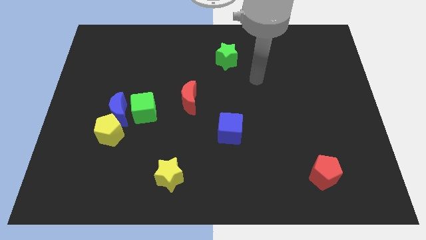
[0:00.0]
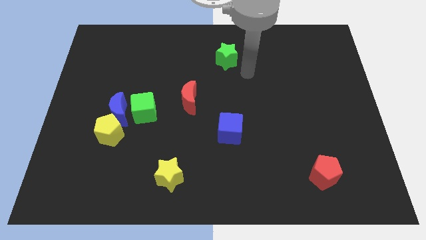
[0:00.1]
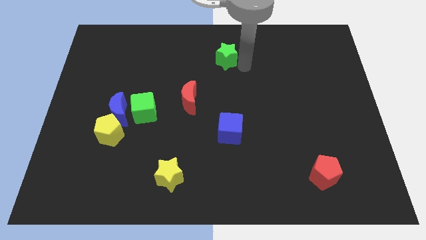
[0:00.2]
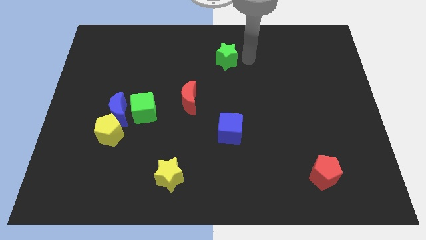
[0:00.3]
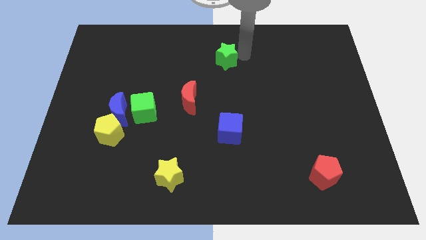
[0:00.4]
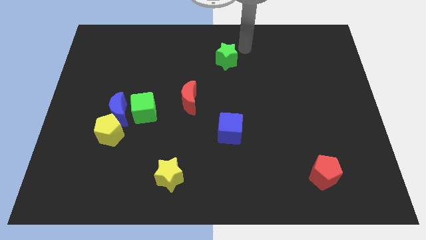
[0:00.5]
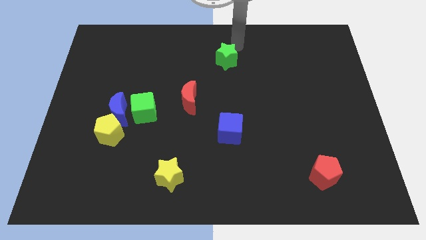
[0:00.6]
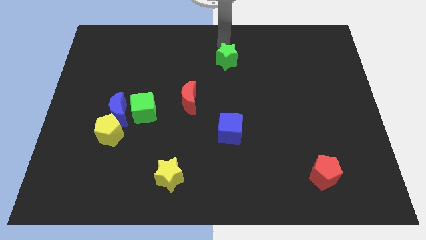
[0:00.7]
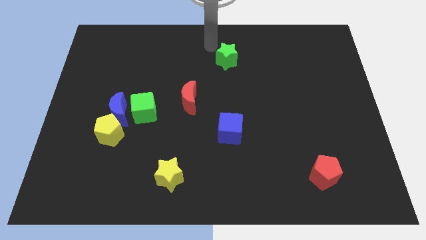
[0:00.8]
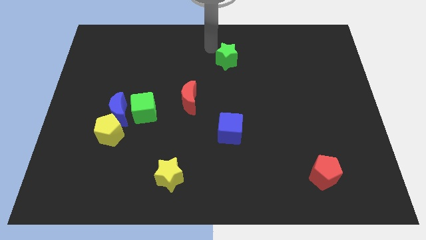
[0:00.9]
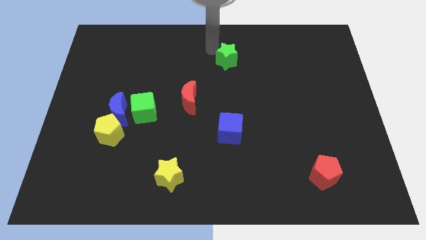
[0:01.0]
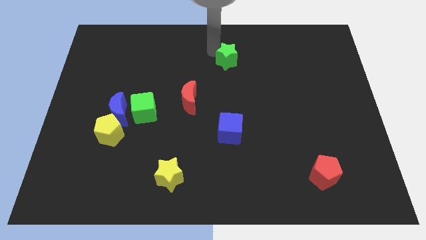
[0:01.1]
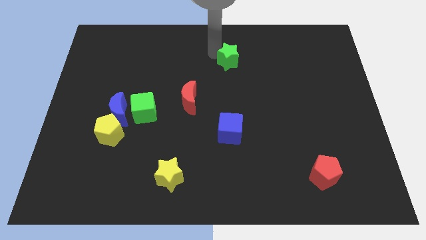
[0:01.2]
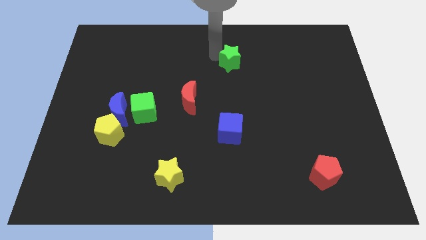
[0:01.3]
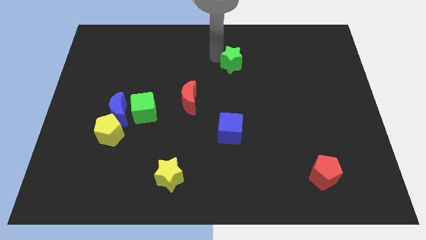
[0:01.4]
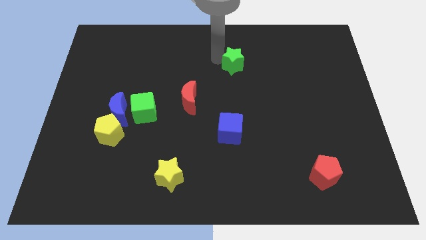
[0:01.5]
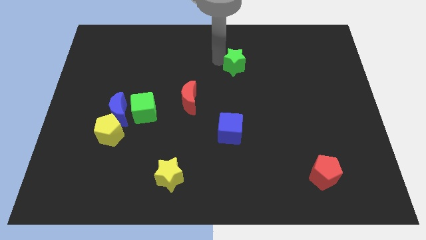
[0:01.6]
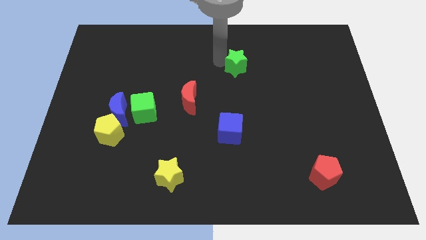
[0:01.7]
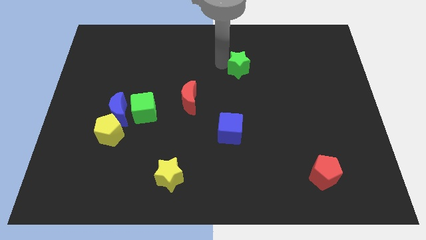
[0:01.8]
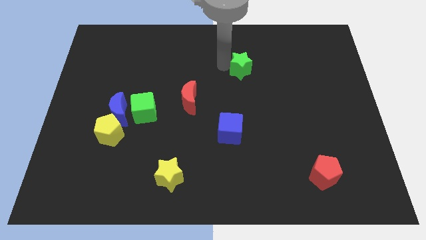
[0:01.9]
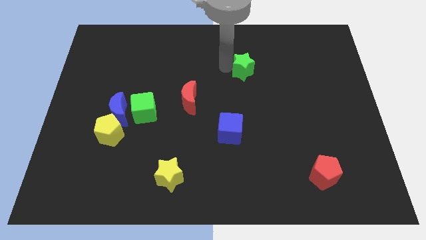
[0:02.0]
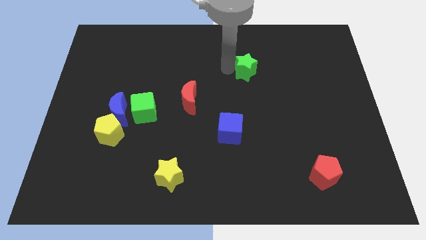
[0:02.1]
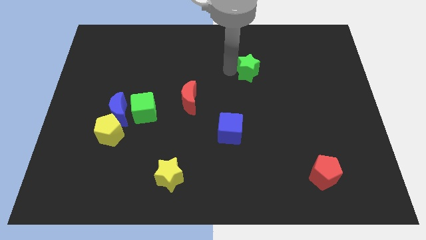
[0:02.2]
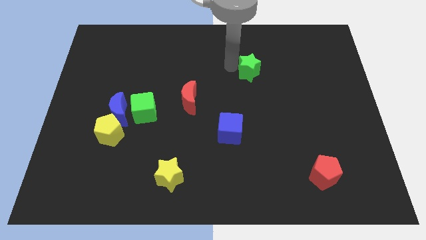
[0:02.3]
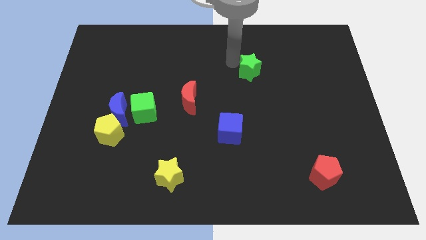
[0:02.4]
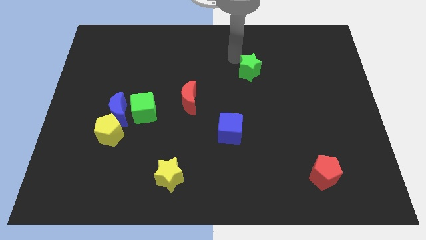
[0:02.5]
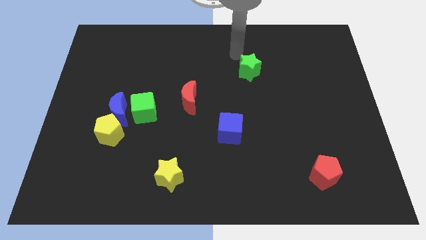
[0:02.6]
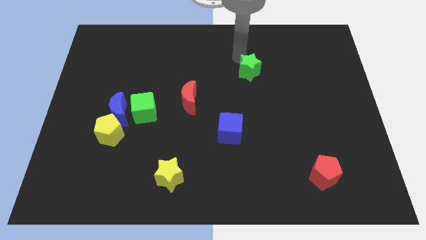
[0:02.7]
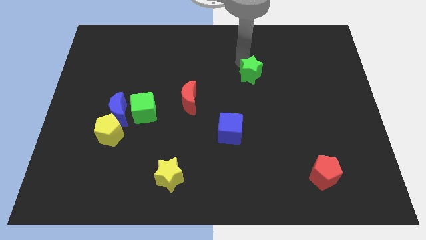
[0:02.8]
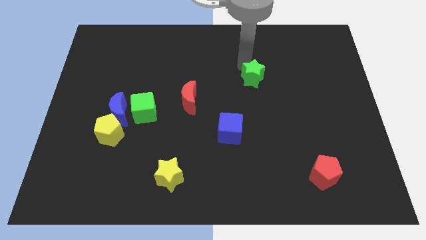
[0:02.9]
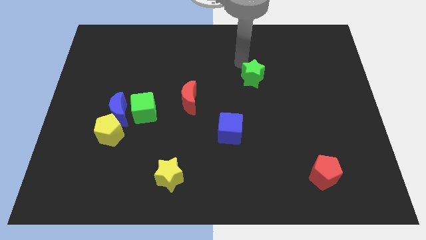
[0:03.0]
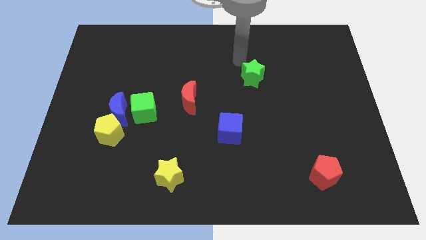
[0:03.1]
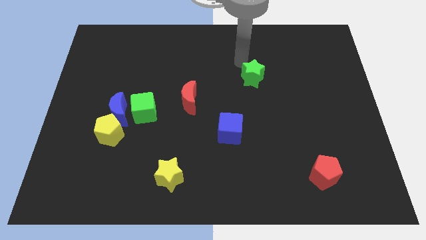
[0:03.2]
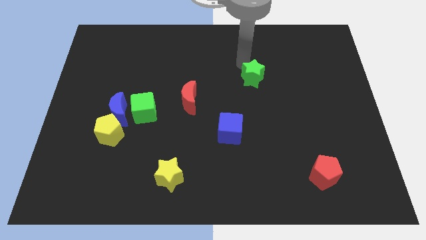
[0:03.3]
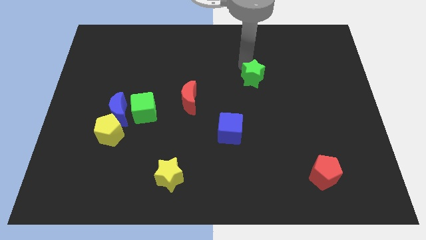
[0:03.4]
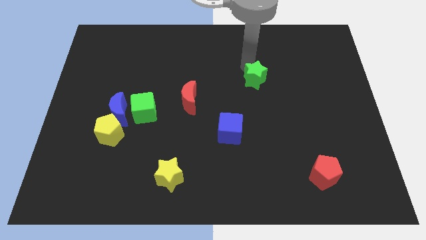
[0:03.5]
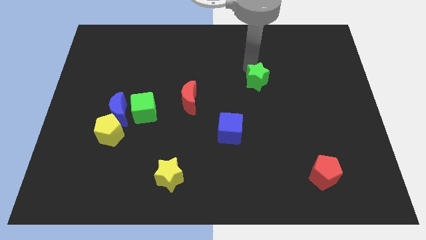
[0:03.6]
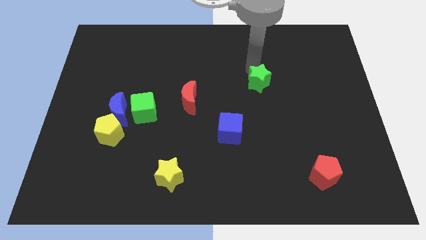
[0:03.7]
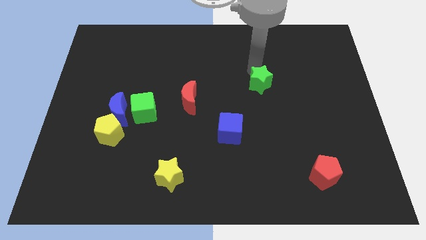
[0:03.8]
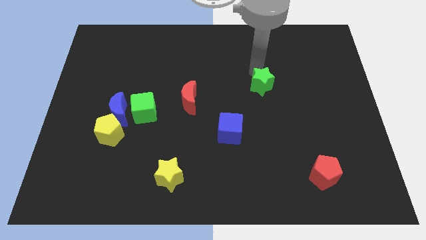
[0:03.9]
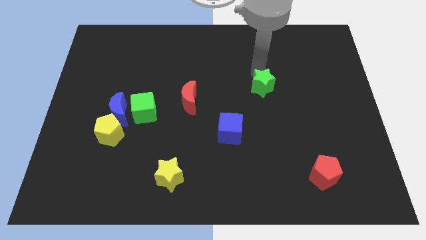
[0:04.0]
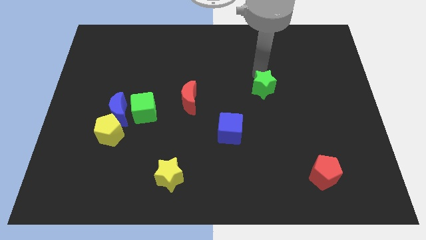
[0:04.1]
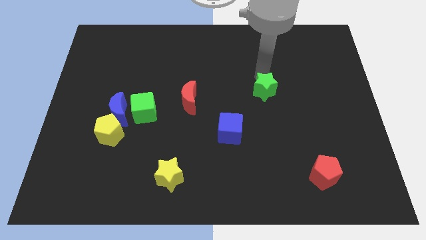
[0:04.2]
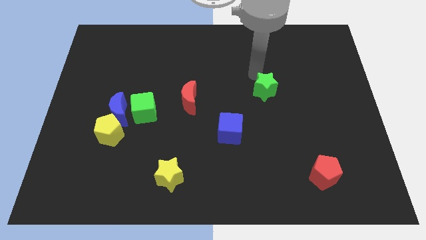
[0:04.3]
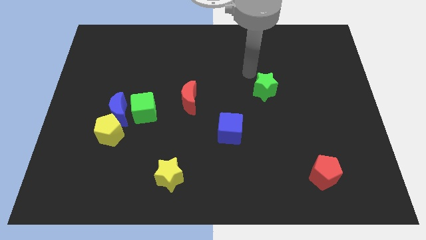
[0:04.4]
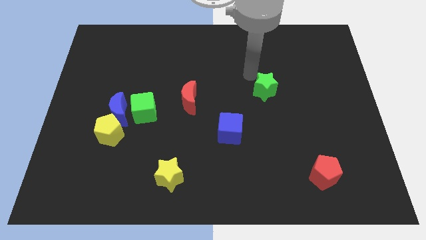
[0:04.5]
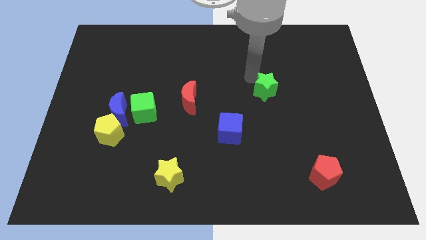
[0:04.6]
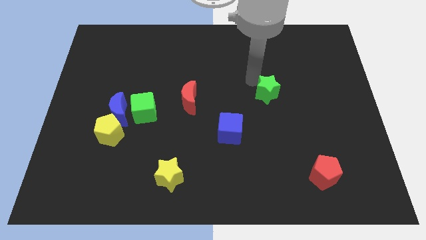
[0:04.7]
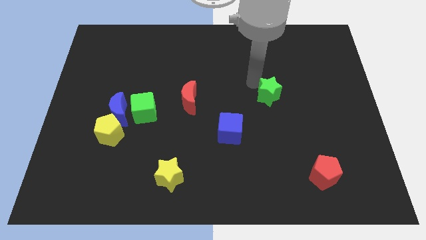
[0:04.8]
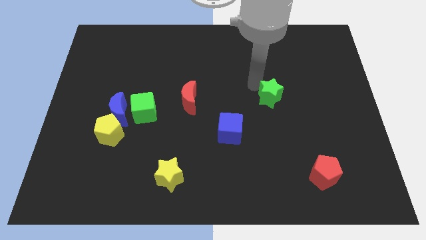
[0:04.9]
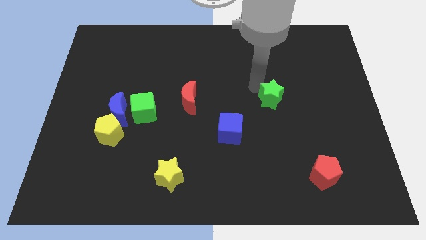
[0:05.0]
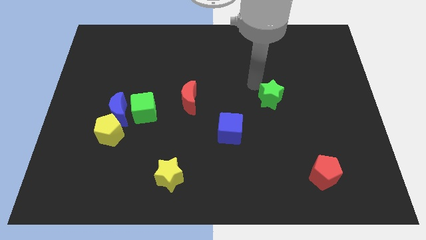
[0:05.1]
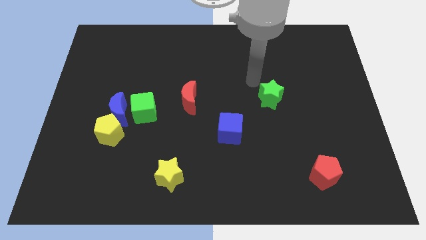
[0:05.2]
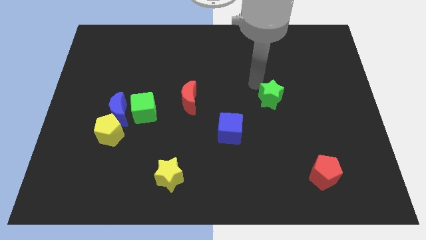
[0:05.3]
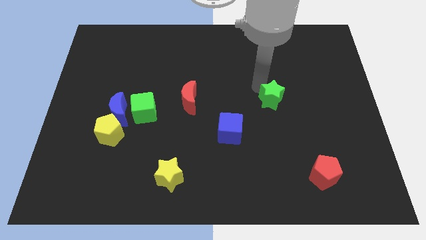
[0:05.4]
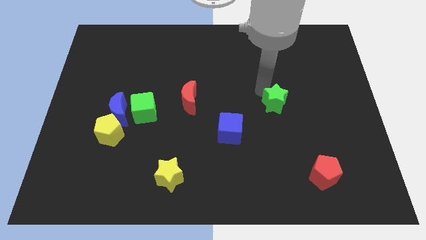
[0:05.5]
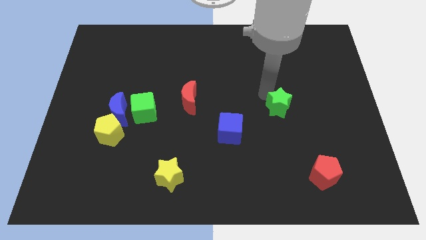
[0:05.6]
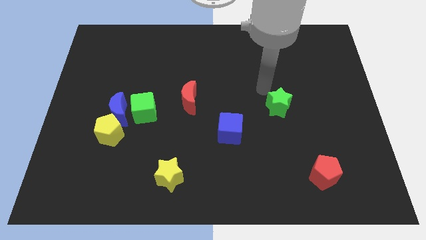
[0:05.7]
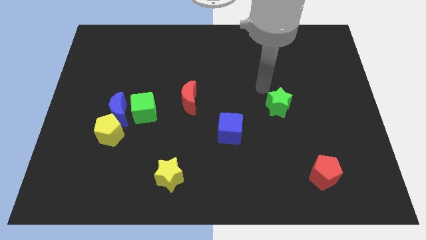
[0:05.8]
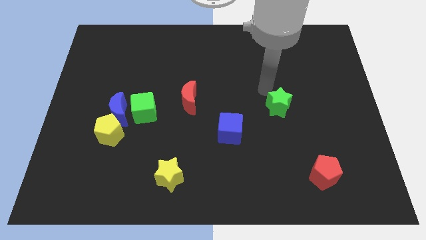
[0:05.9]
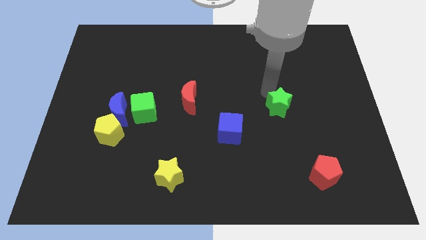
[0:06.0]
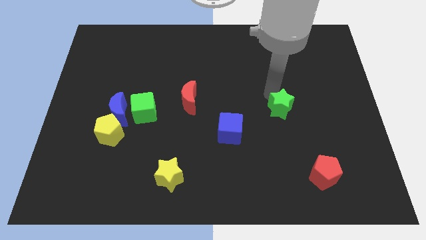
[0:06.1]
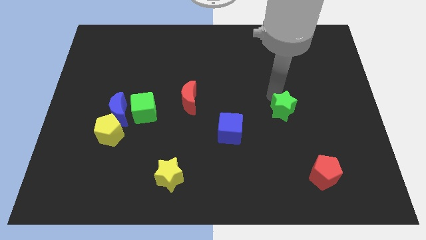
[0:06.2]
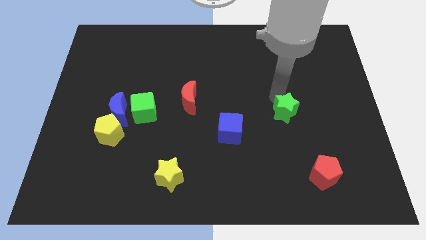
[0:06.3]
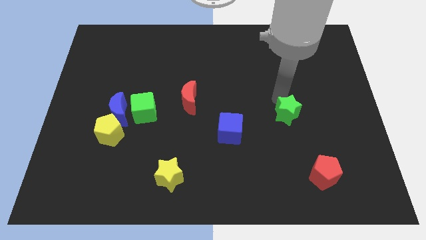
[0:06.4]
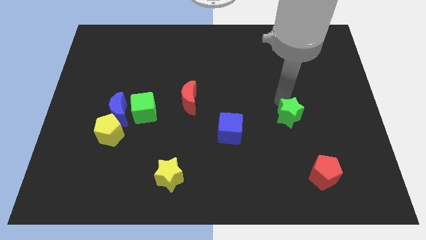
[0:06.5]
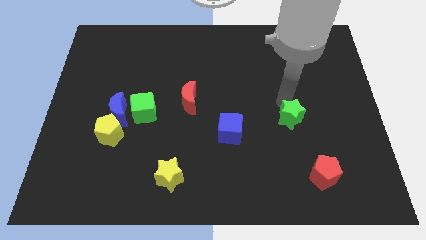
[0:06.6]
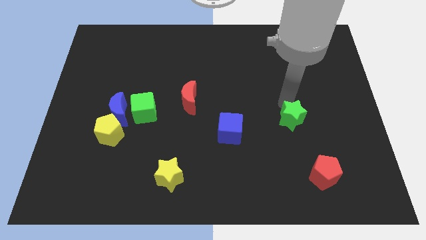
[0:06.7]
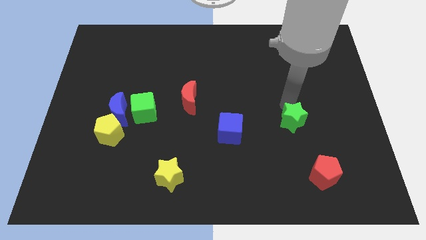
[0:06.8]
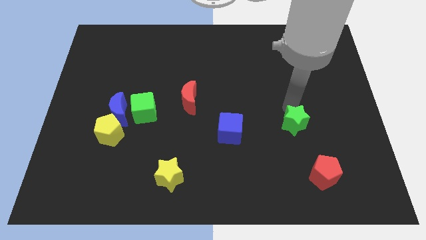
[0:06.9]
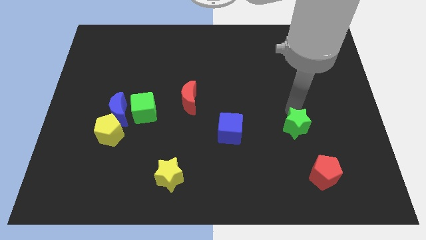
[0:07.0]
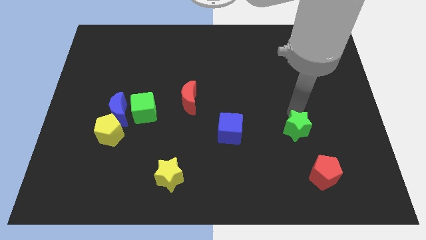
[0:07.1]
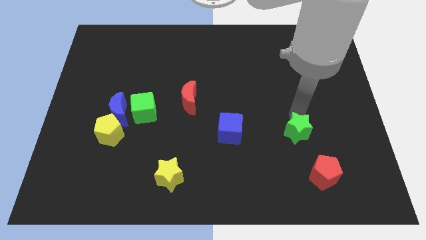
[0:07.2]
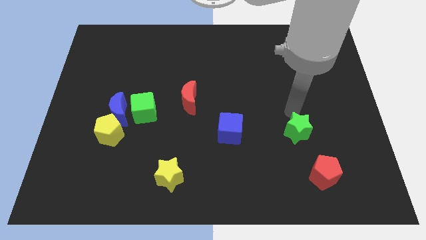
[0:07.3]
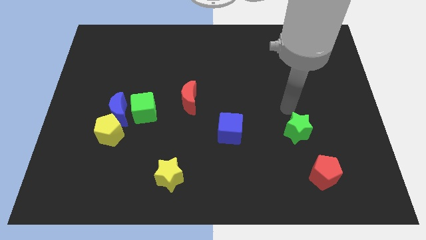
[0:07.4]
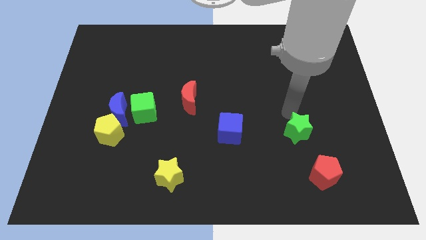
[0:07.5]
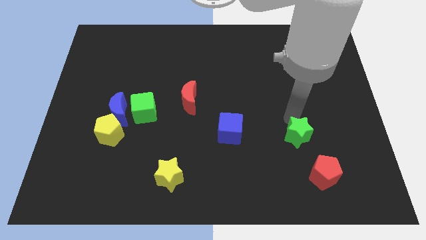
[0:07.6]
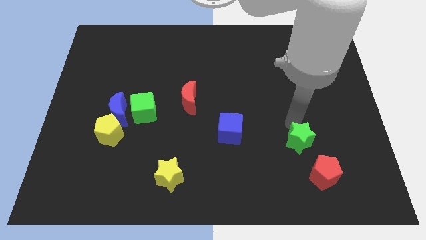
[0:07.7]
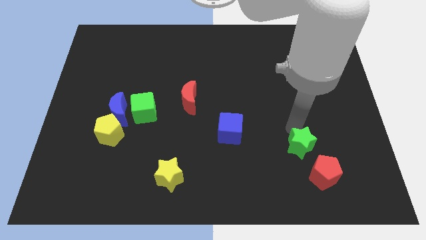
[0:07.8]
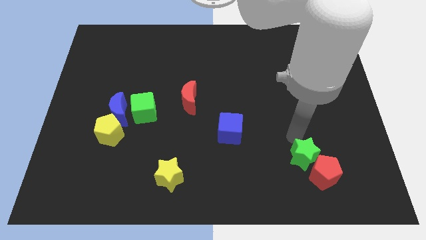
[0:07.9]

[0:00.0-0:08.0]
move the green star next to the red pentagon
